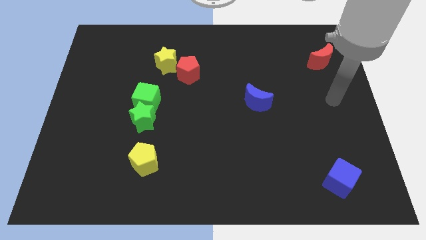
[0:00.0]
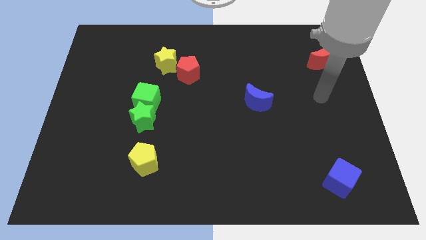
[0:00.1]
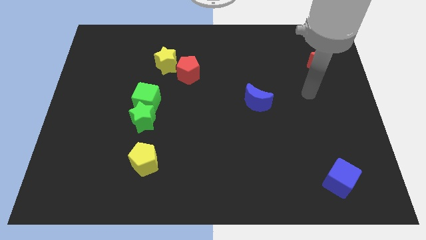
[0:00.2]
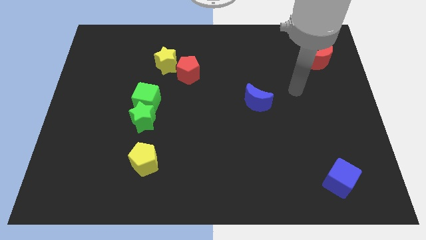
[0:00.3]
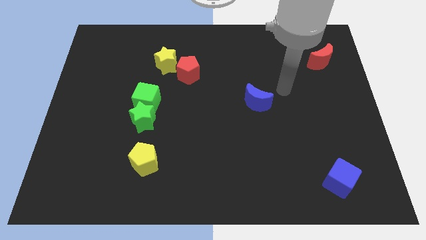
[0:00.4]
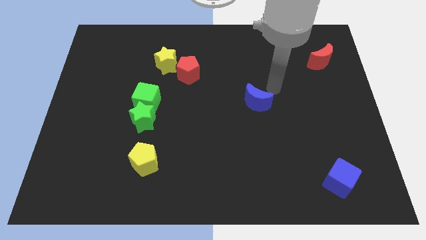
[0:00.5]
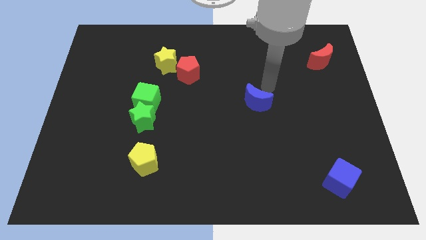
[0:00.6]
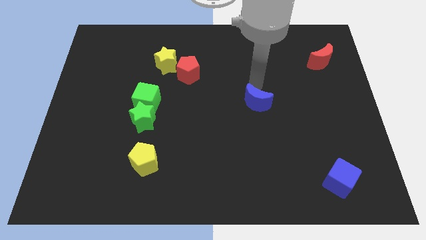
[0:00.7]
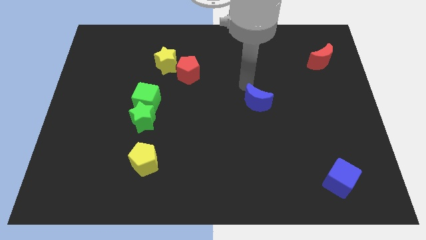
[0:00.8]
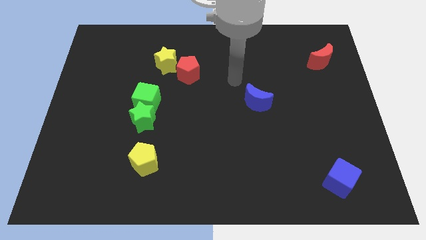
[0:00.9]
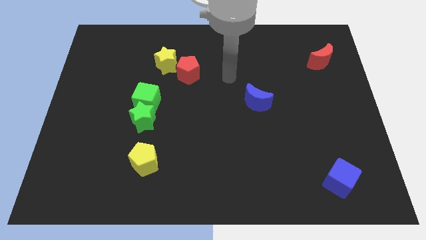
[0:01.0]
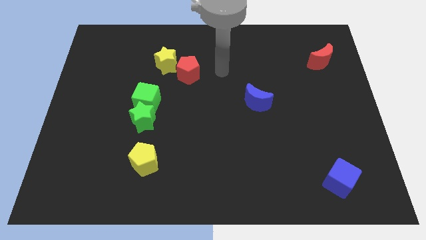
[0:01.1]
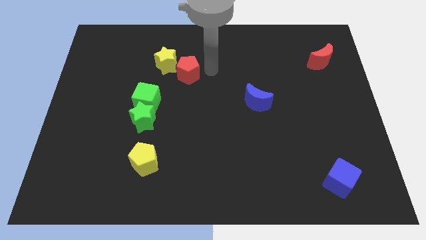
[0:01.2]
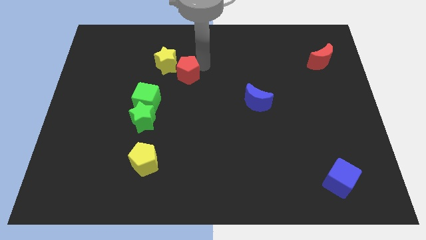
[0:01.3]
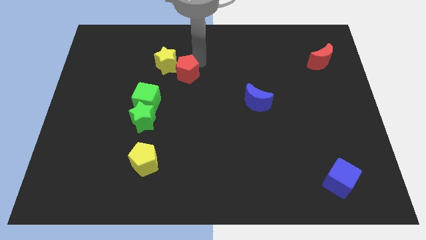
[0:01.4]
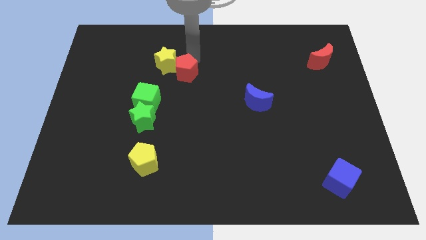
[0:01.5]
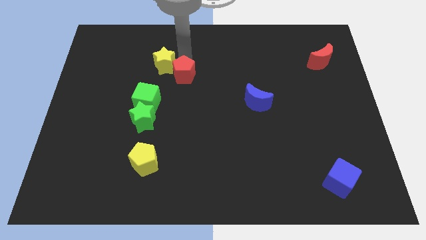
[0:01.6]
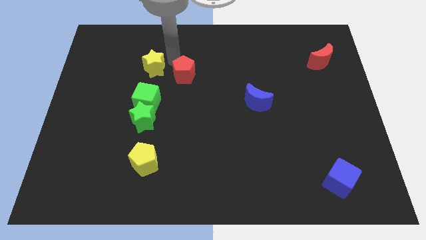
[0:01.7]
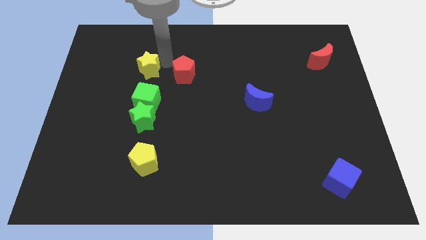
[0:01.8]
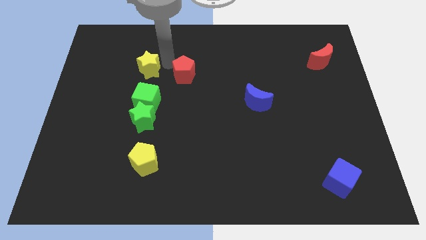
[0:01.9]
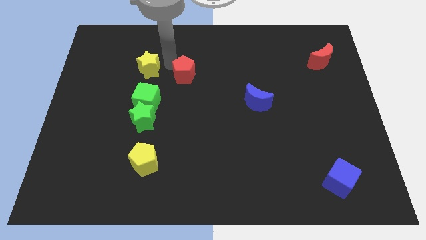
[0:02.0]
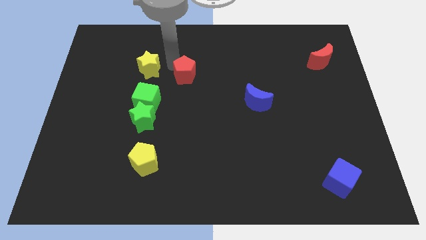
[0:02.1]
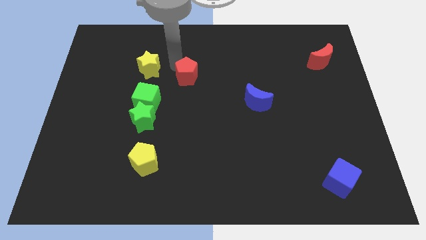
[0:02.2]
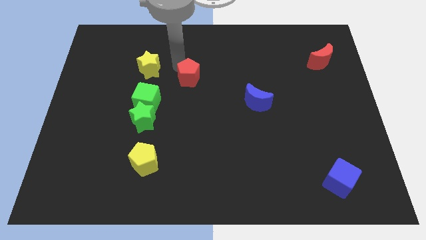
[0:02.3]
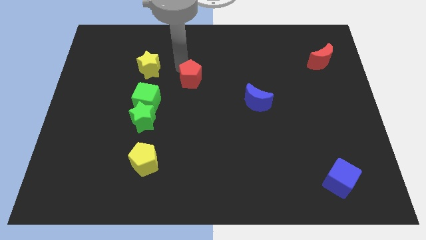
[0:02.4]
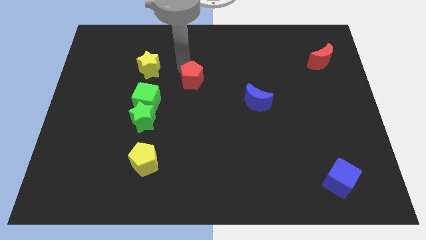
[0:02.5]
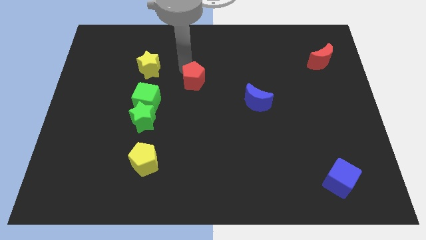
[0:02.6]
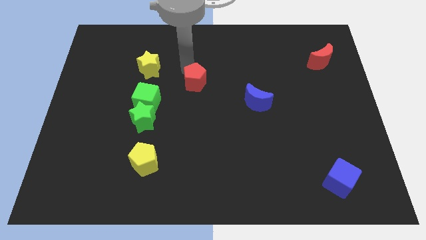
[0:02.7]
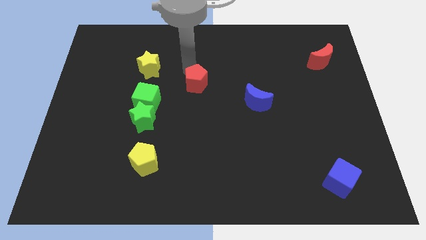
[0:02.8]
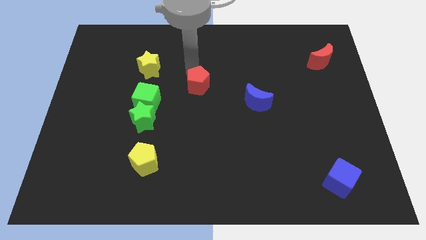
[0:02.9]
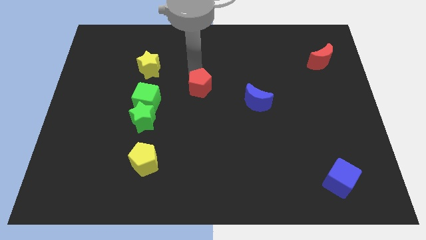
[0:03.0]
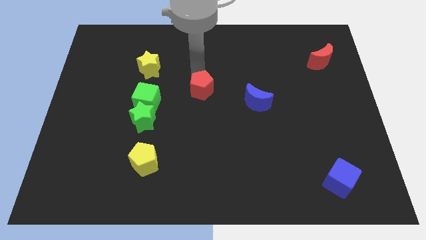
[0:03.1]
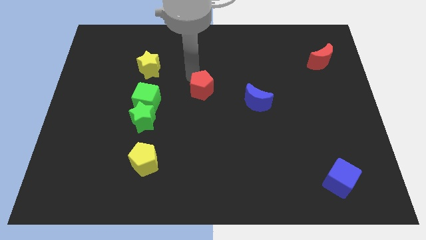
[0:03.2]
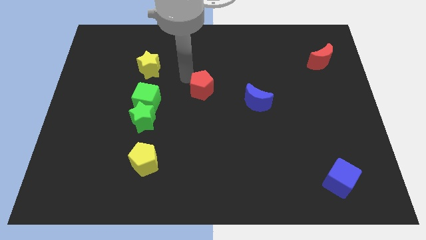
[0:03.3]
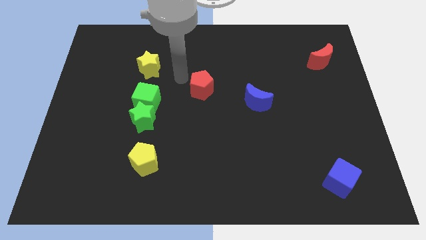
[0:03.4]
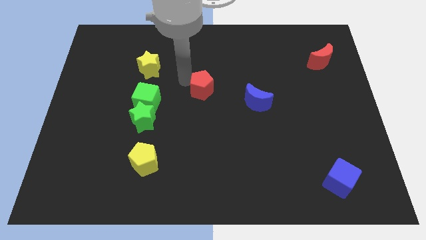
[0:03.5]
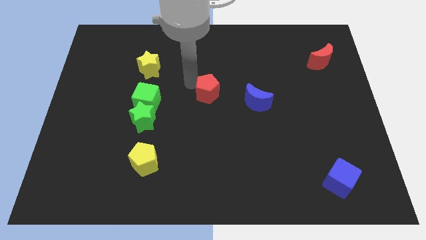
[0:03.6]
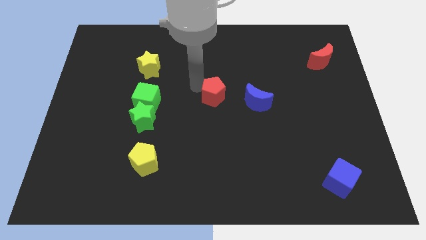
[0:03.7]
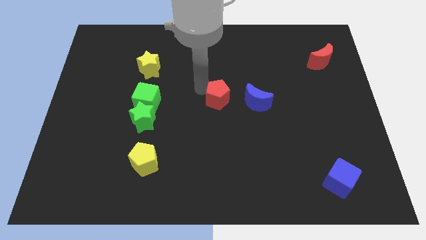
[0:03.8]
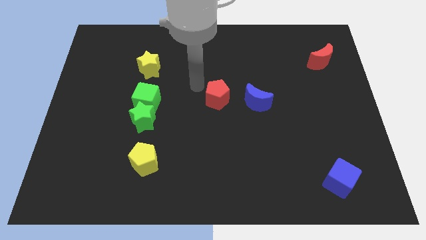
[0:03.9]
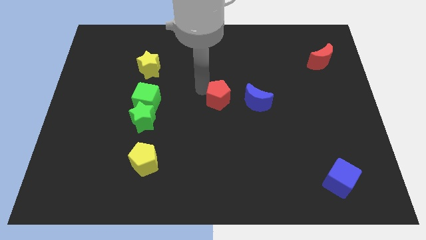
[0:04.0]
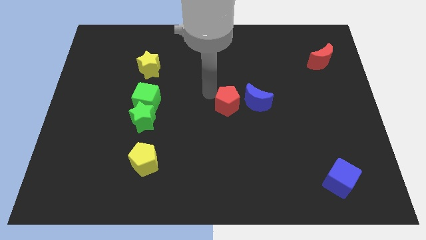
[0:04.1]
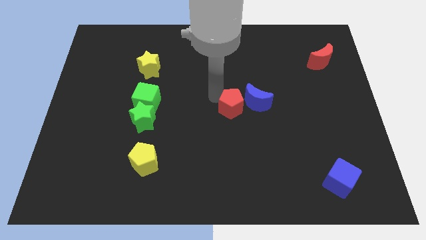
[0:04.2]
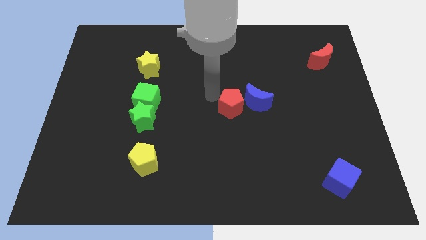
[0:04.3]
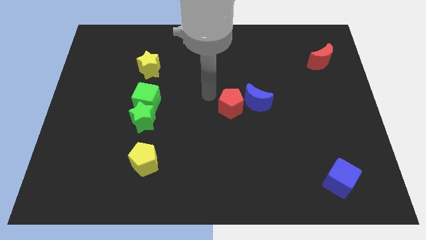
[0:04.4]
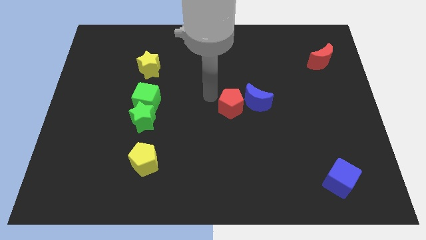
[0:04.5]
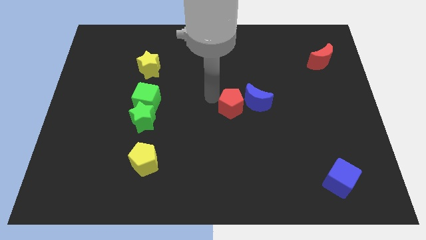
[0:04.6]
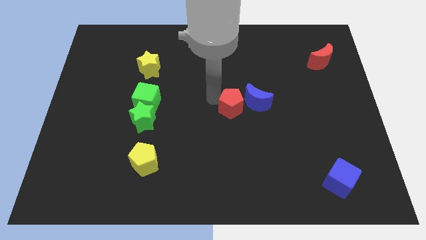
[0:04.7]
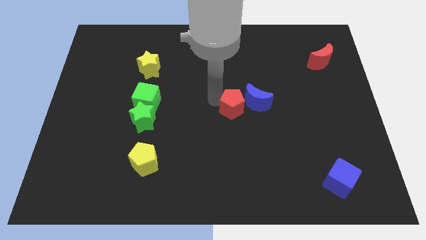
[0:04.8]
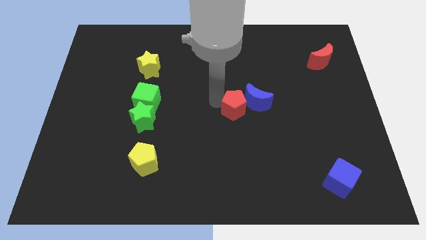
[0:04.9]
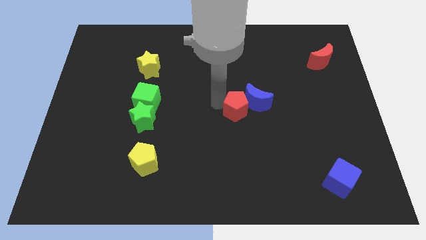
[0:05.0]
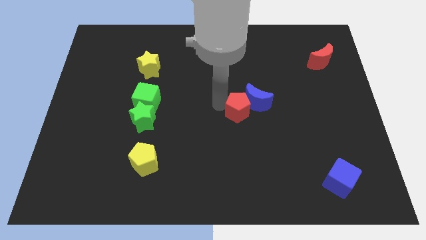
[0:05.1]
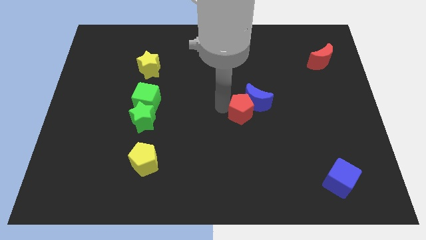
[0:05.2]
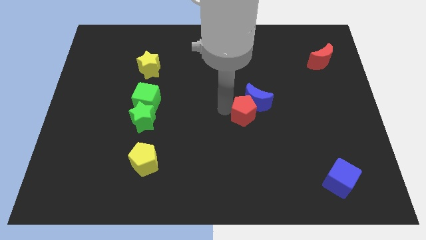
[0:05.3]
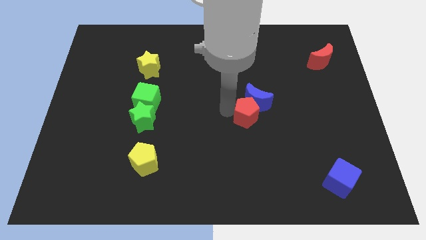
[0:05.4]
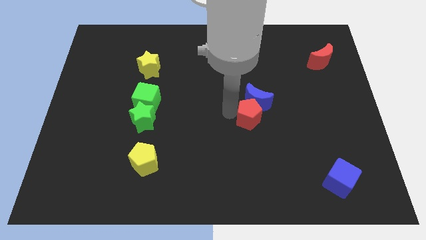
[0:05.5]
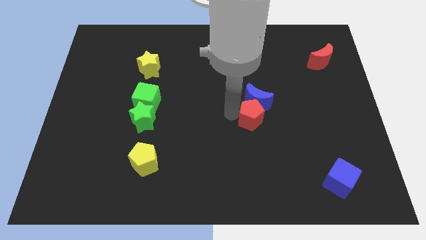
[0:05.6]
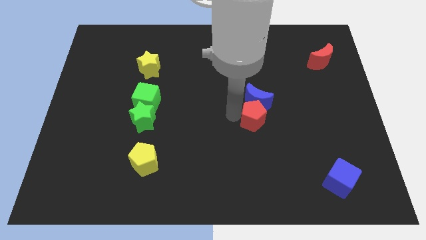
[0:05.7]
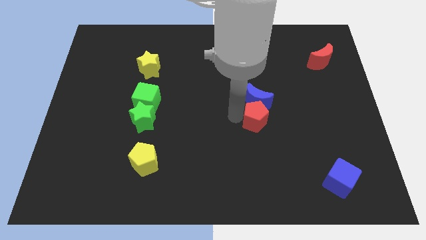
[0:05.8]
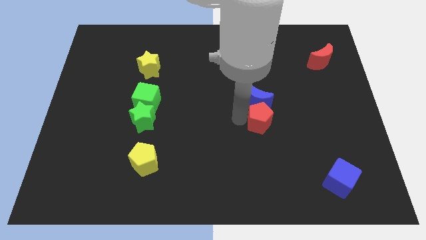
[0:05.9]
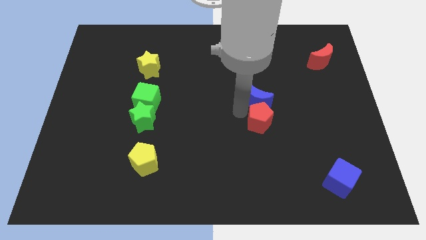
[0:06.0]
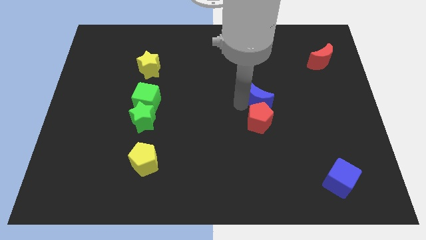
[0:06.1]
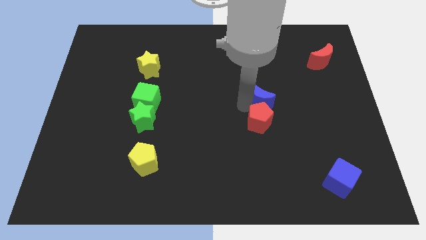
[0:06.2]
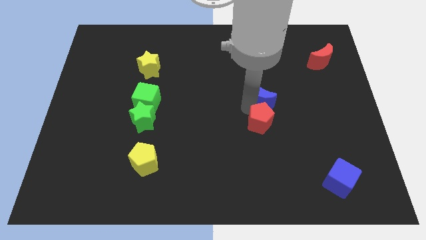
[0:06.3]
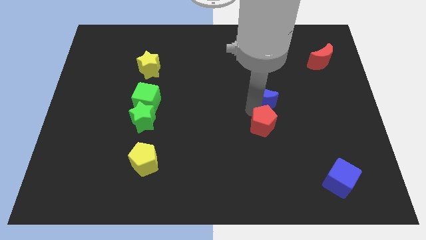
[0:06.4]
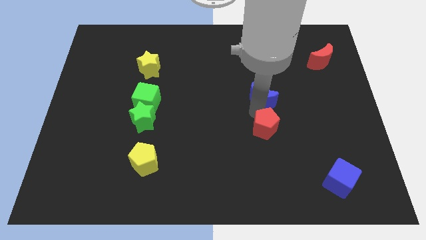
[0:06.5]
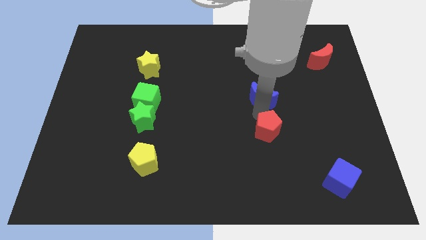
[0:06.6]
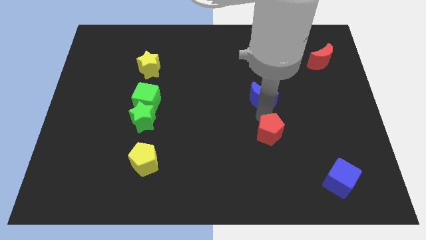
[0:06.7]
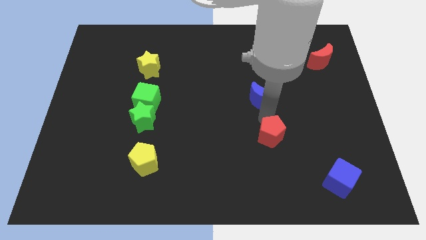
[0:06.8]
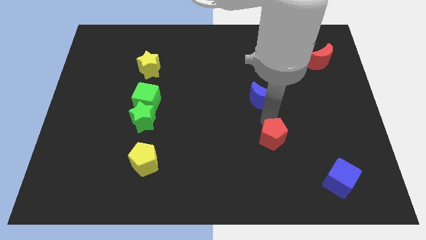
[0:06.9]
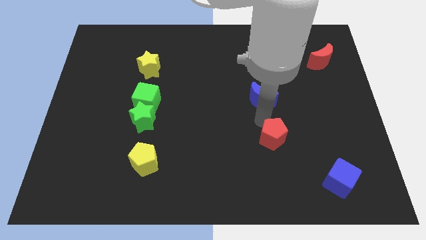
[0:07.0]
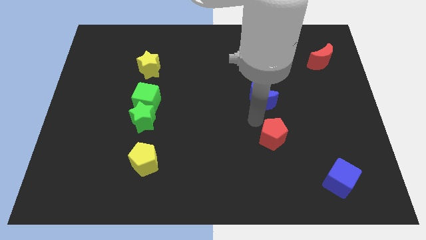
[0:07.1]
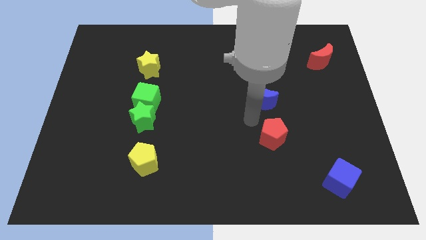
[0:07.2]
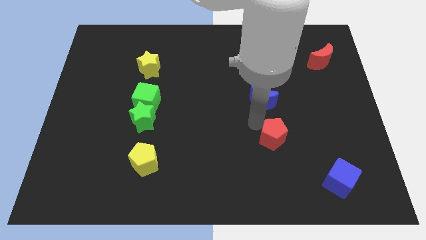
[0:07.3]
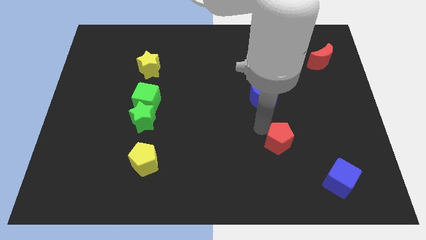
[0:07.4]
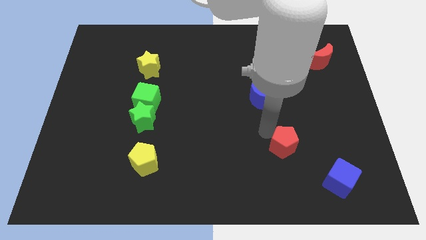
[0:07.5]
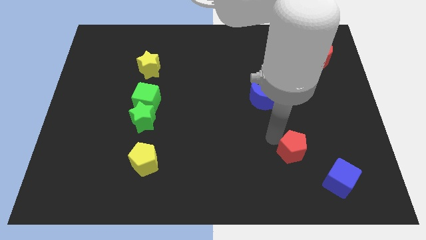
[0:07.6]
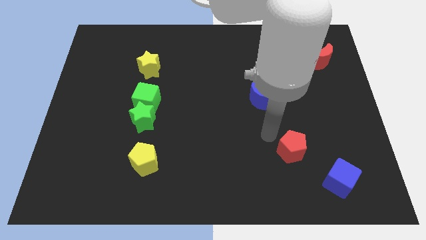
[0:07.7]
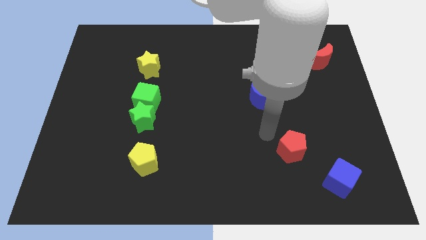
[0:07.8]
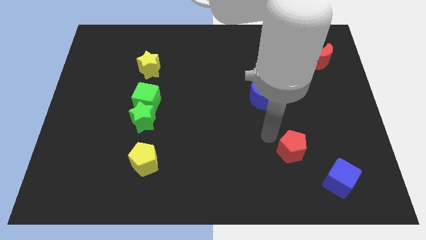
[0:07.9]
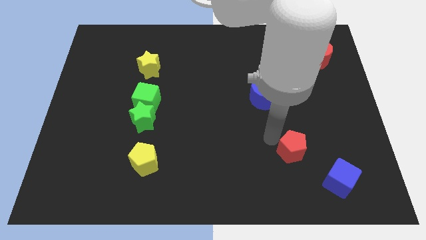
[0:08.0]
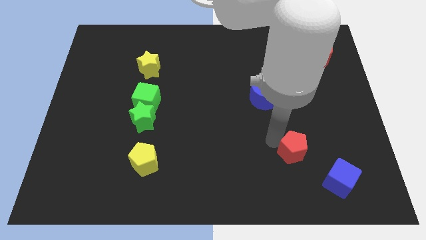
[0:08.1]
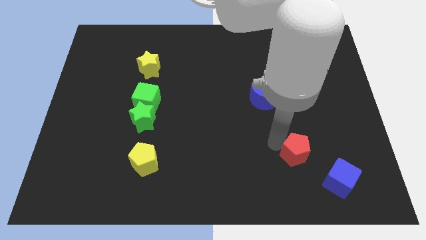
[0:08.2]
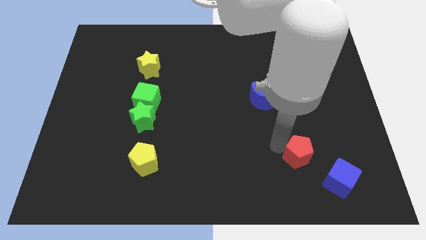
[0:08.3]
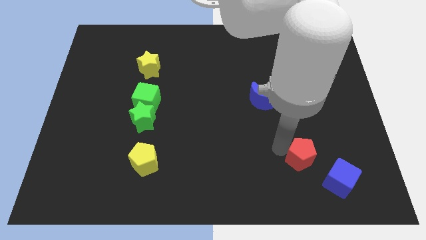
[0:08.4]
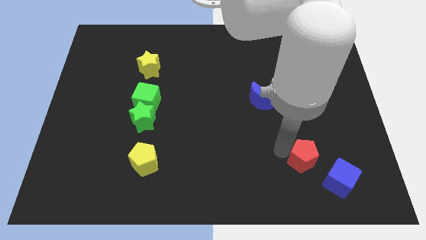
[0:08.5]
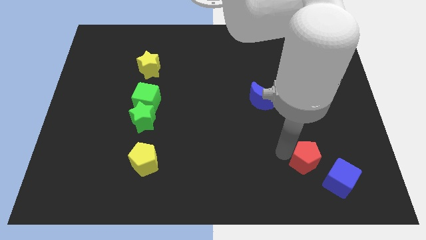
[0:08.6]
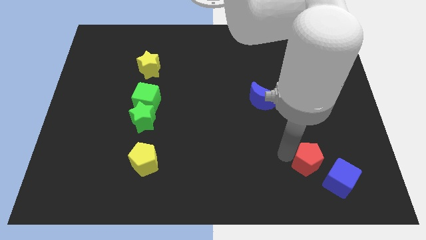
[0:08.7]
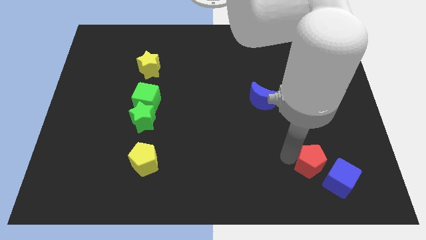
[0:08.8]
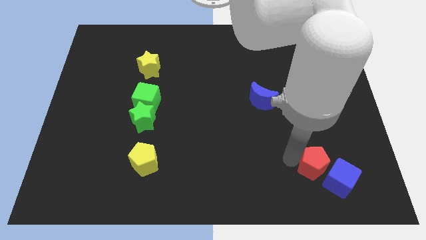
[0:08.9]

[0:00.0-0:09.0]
slide the red pentagon towards the blue cube
